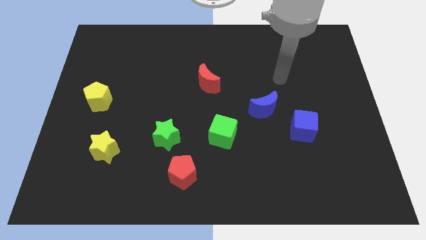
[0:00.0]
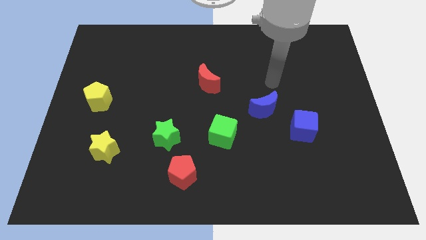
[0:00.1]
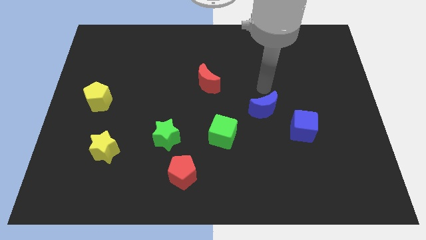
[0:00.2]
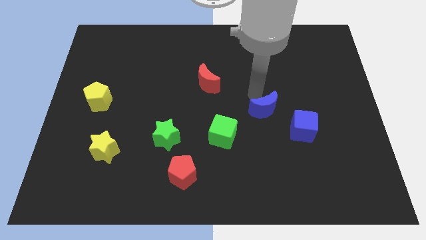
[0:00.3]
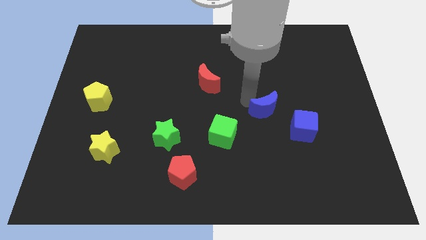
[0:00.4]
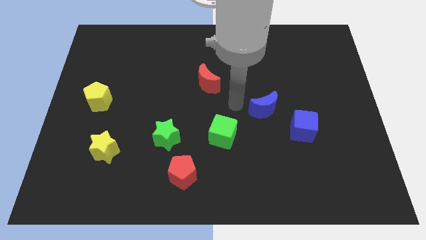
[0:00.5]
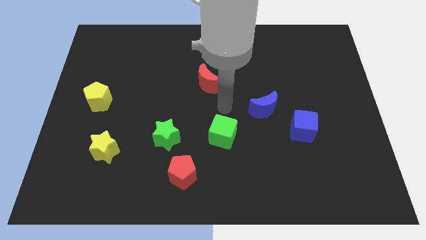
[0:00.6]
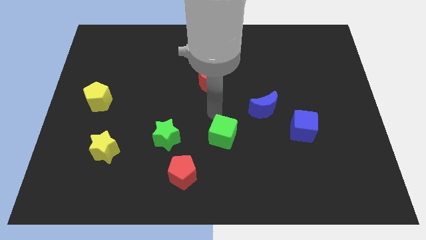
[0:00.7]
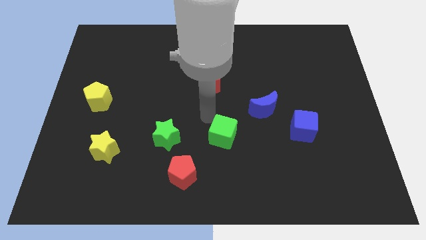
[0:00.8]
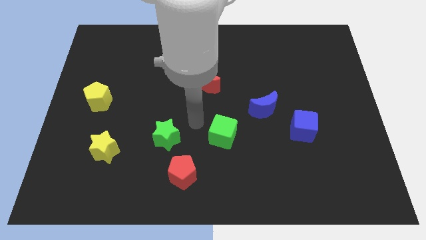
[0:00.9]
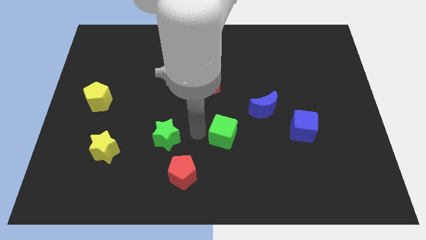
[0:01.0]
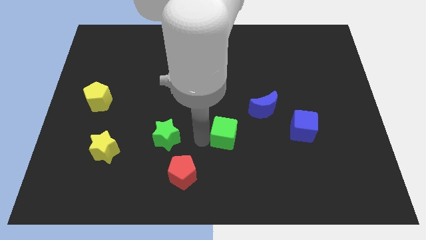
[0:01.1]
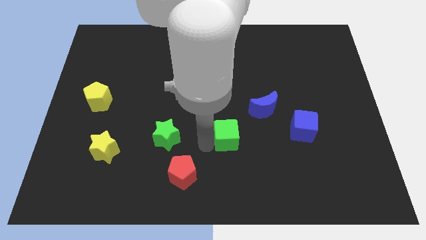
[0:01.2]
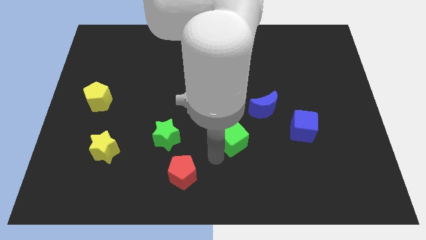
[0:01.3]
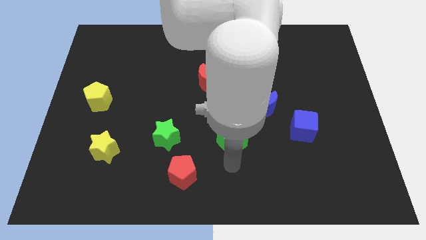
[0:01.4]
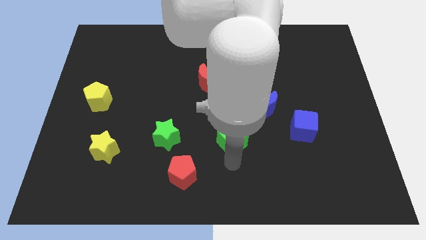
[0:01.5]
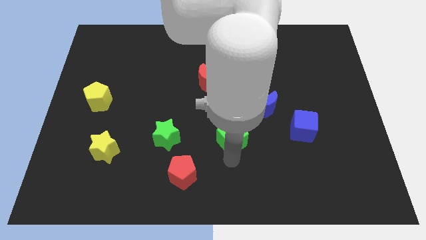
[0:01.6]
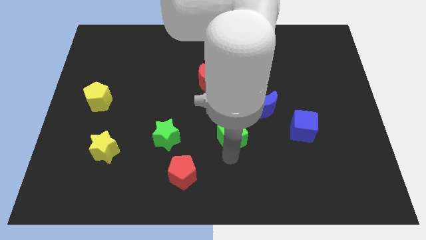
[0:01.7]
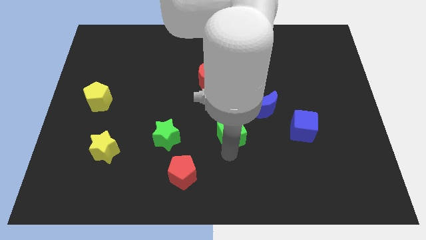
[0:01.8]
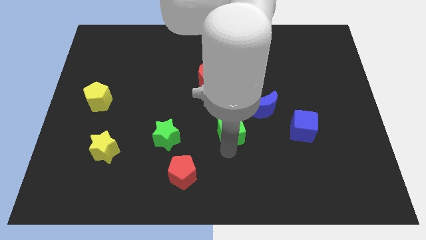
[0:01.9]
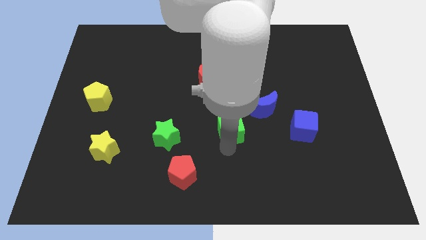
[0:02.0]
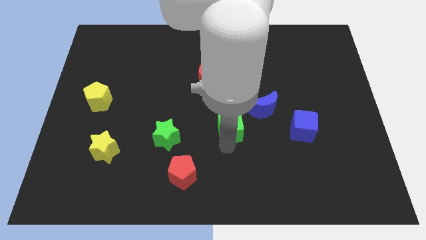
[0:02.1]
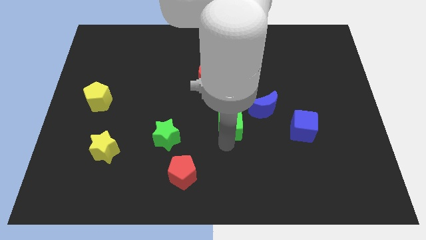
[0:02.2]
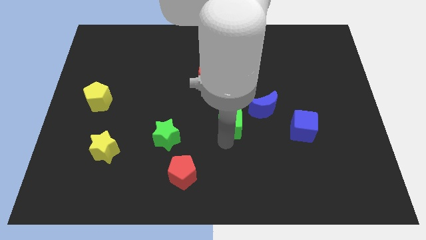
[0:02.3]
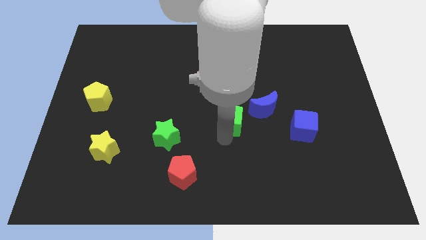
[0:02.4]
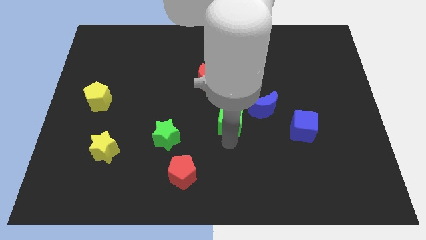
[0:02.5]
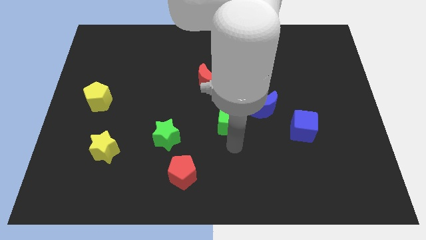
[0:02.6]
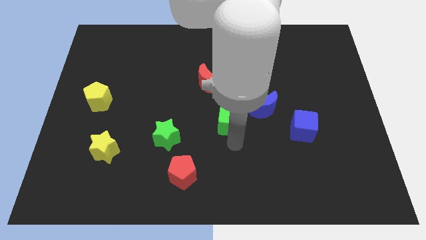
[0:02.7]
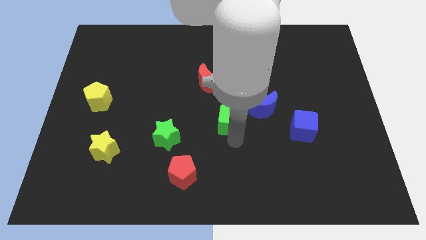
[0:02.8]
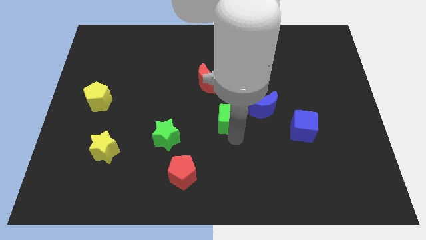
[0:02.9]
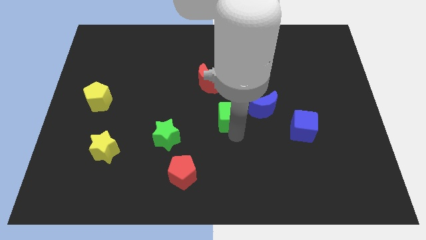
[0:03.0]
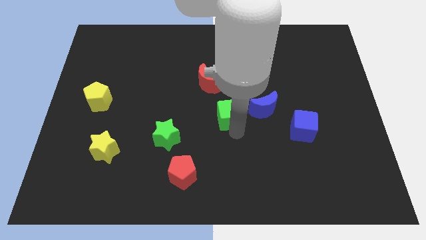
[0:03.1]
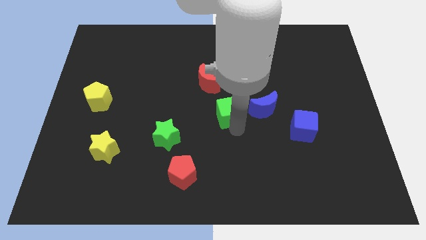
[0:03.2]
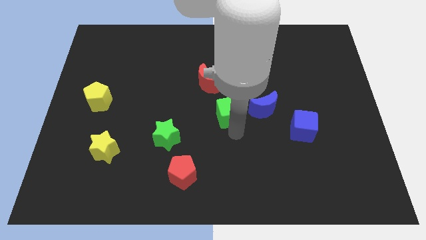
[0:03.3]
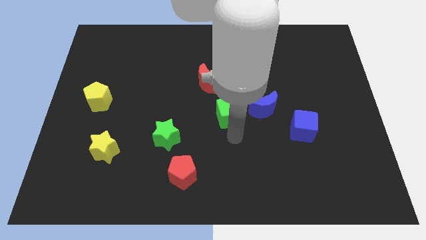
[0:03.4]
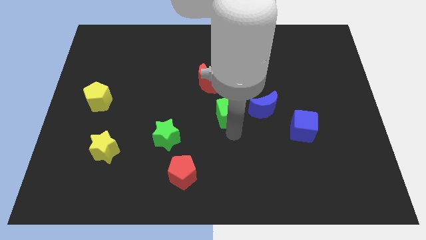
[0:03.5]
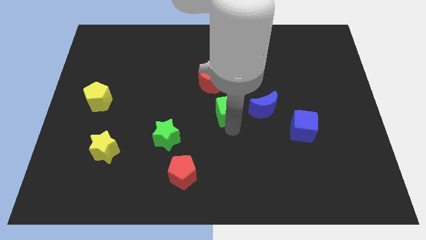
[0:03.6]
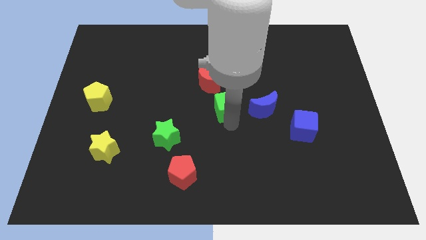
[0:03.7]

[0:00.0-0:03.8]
move the green cube somewhat upwards

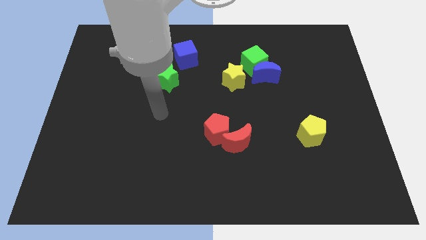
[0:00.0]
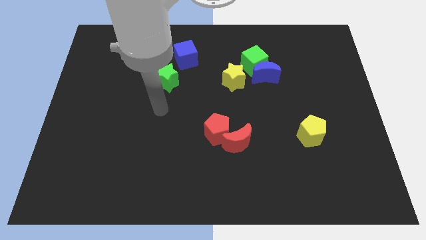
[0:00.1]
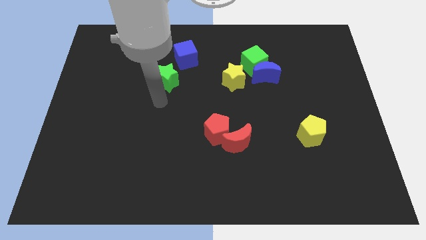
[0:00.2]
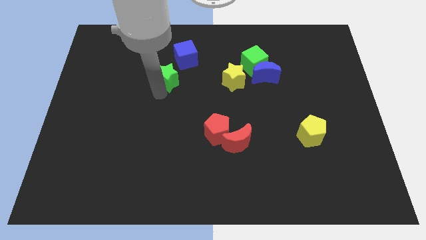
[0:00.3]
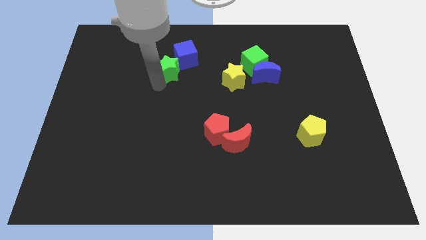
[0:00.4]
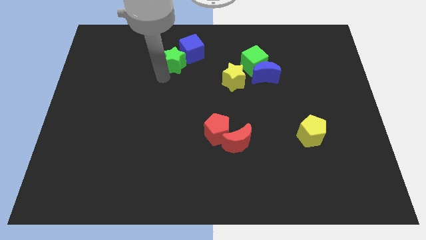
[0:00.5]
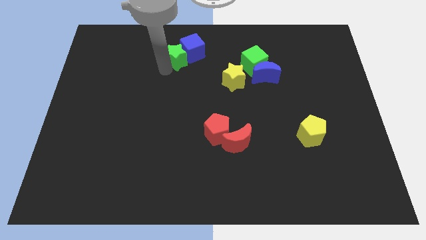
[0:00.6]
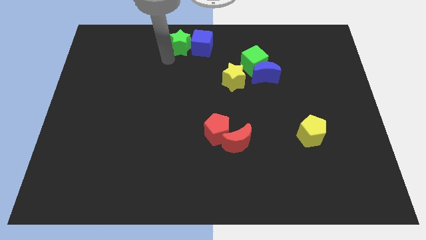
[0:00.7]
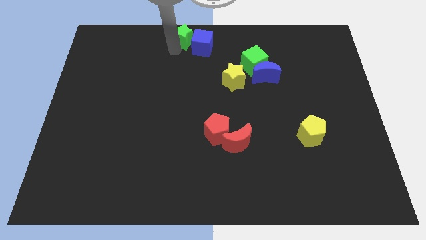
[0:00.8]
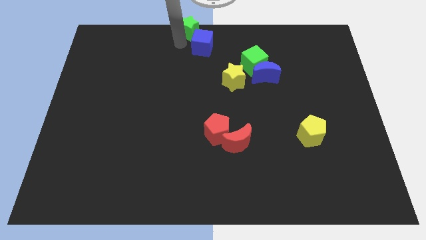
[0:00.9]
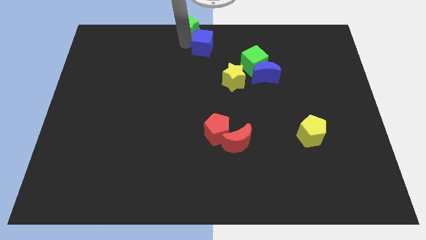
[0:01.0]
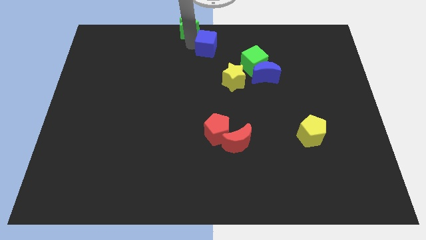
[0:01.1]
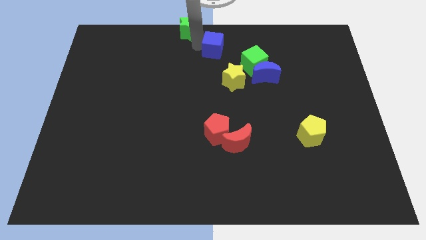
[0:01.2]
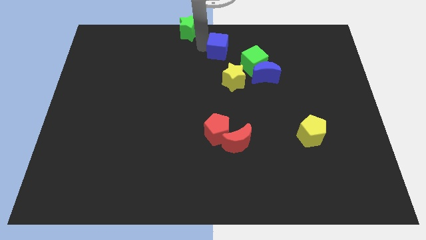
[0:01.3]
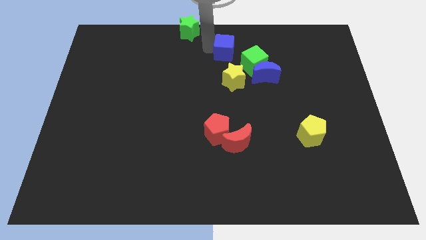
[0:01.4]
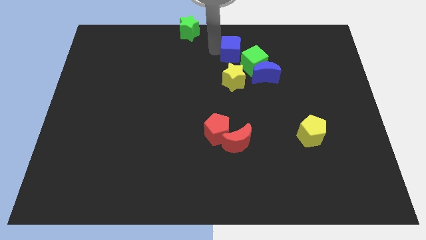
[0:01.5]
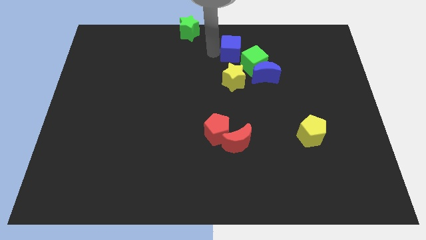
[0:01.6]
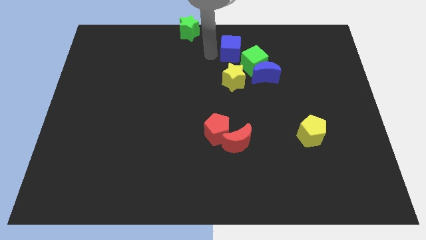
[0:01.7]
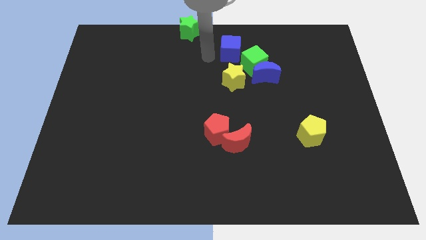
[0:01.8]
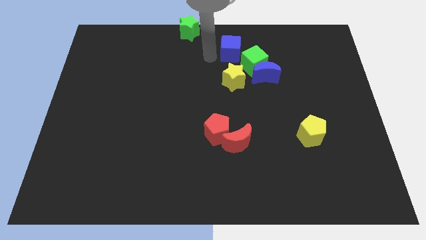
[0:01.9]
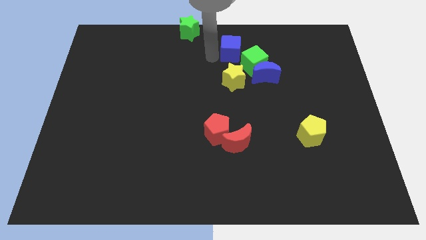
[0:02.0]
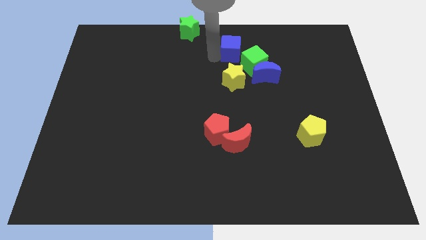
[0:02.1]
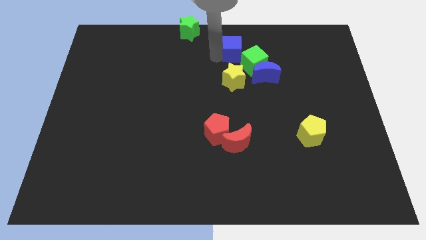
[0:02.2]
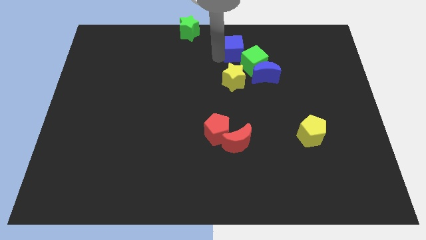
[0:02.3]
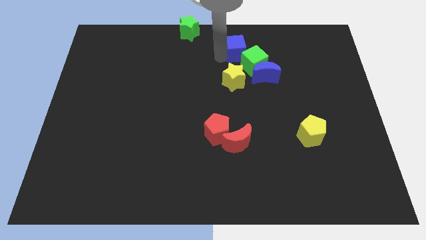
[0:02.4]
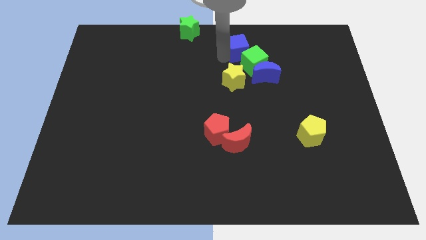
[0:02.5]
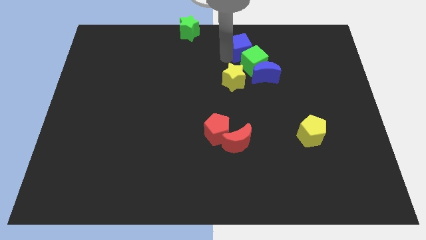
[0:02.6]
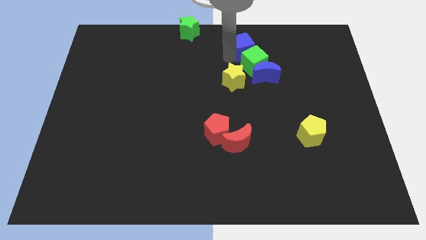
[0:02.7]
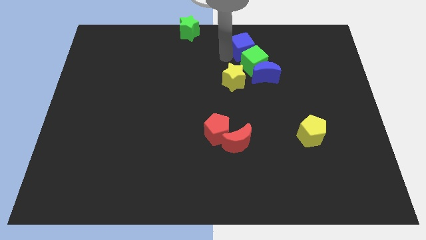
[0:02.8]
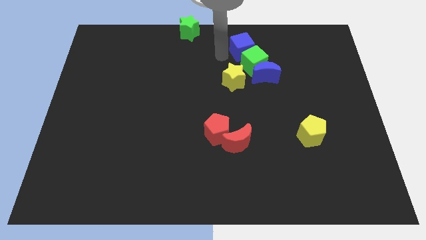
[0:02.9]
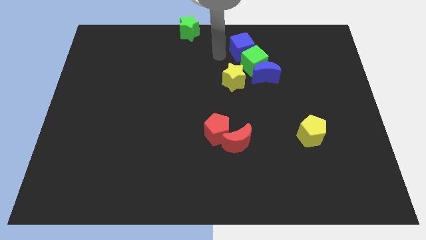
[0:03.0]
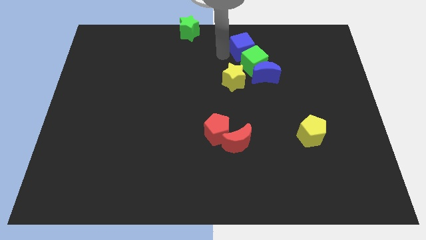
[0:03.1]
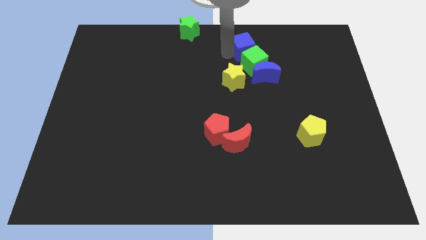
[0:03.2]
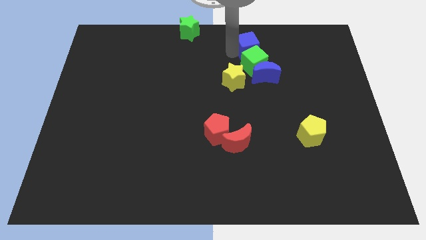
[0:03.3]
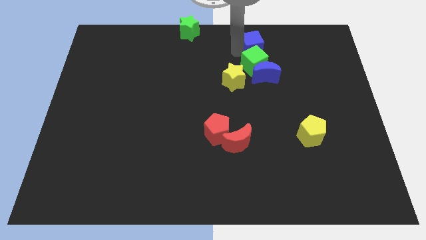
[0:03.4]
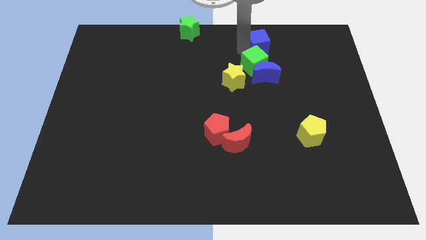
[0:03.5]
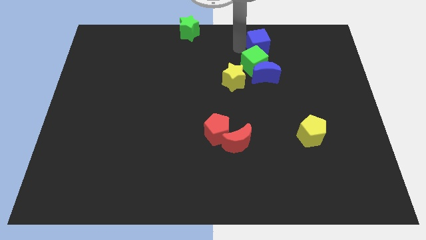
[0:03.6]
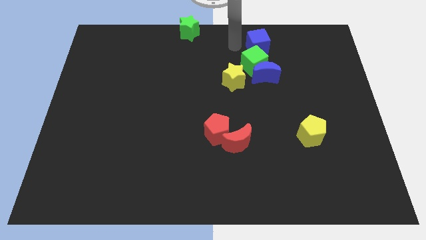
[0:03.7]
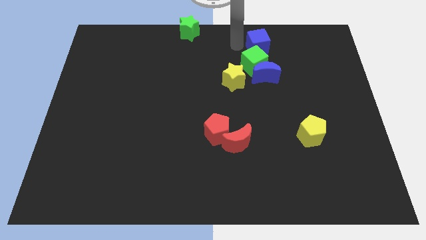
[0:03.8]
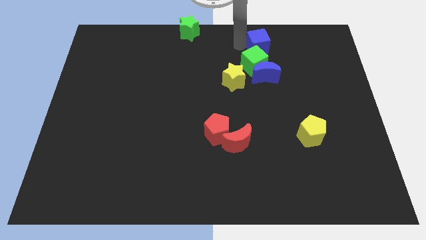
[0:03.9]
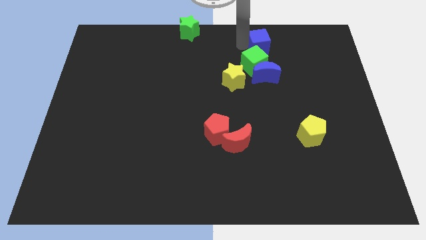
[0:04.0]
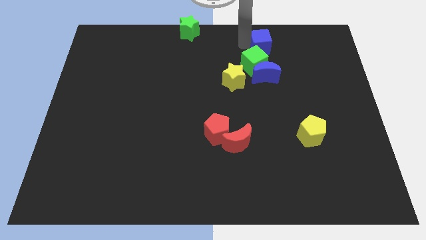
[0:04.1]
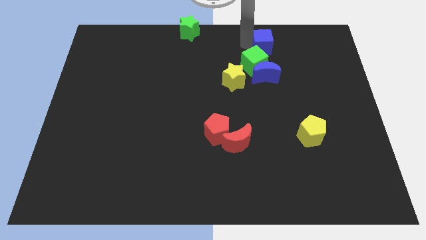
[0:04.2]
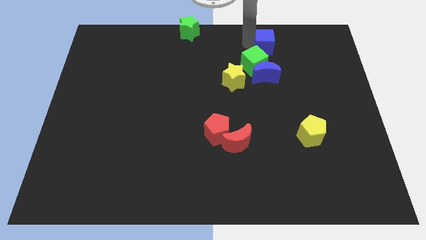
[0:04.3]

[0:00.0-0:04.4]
push the blue cube to the right
